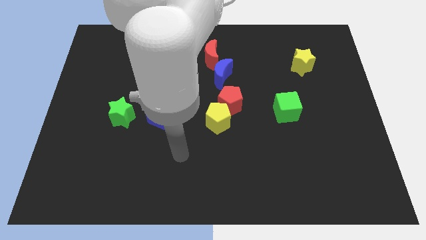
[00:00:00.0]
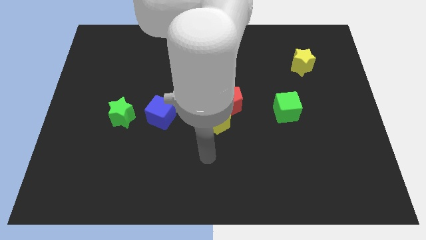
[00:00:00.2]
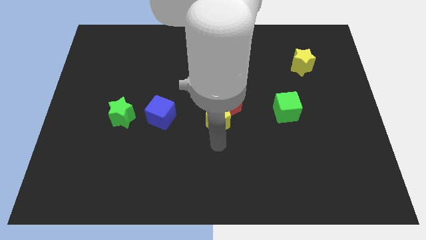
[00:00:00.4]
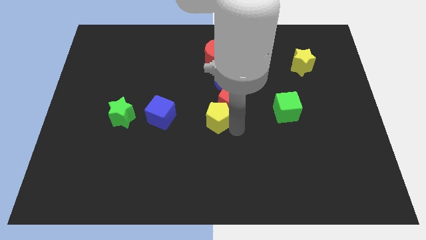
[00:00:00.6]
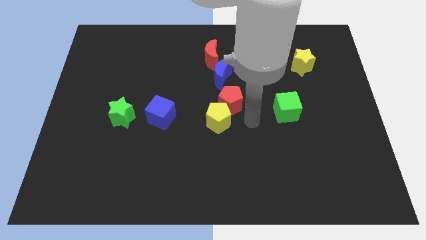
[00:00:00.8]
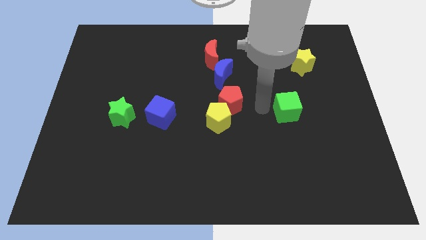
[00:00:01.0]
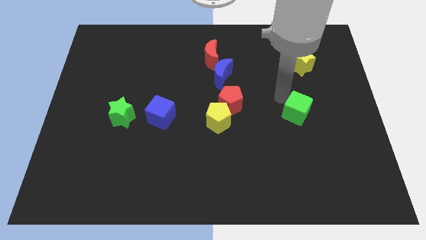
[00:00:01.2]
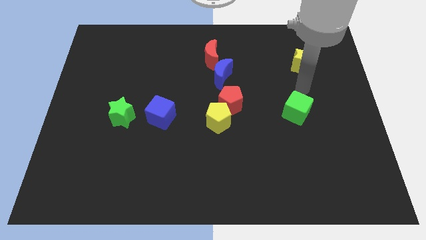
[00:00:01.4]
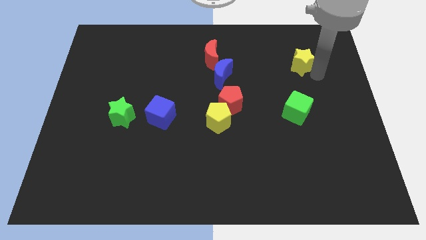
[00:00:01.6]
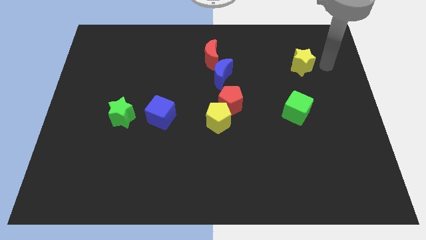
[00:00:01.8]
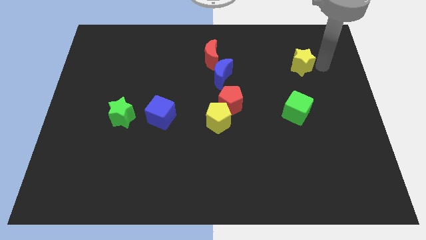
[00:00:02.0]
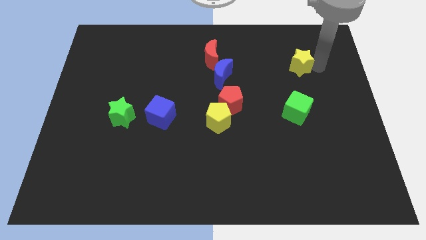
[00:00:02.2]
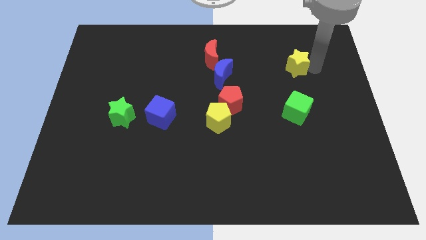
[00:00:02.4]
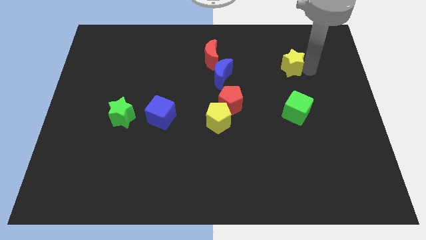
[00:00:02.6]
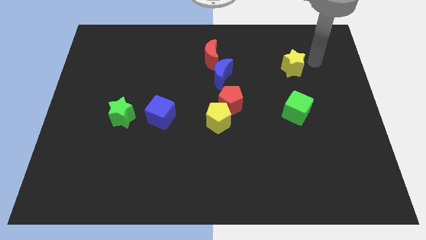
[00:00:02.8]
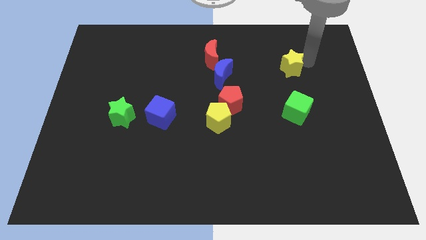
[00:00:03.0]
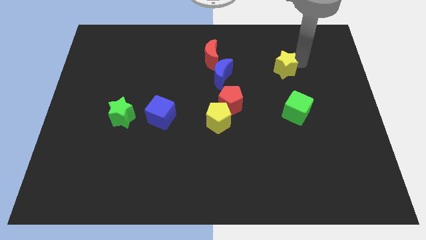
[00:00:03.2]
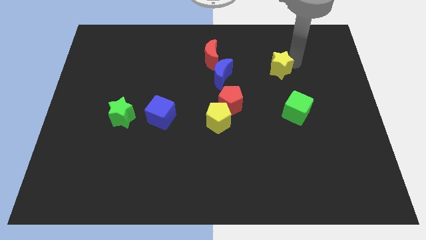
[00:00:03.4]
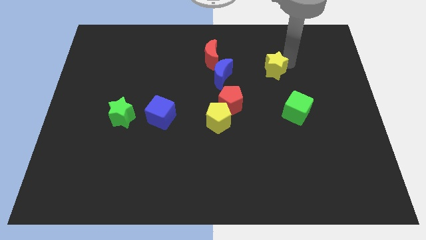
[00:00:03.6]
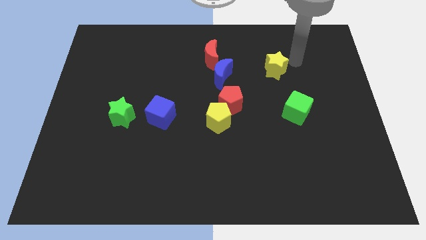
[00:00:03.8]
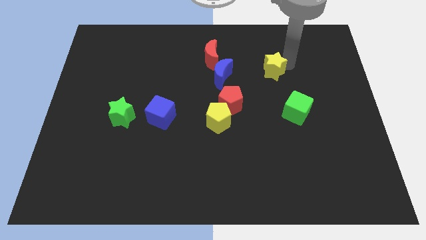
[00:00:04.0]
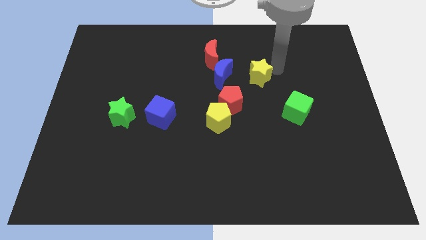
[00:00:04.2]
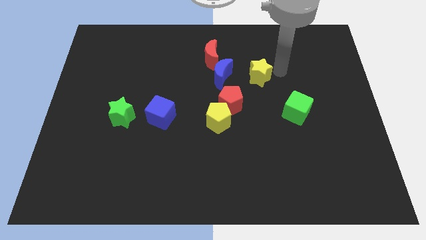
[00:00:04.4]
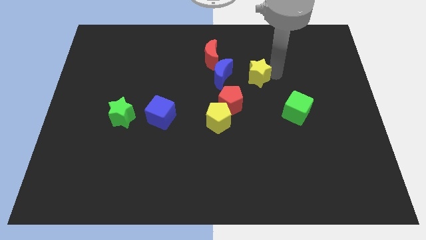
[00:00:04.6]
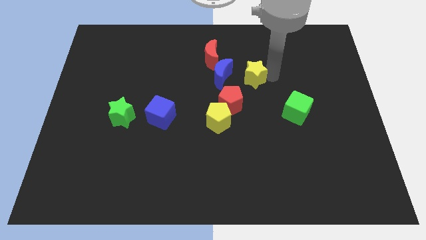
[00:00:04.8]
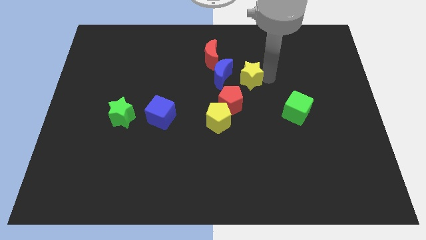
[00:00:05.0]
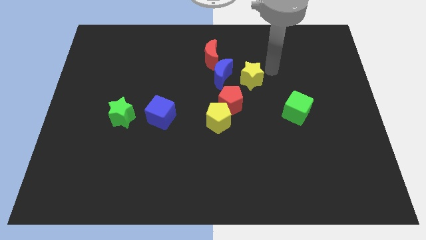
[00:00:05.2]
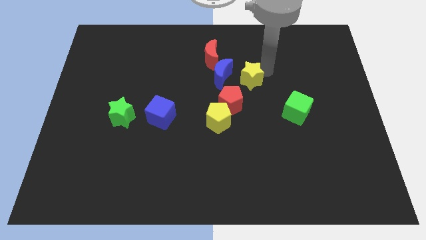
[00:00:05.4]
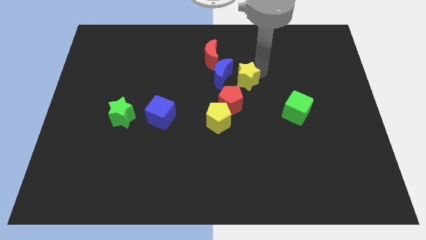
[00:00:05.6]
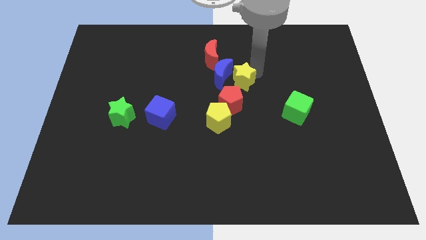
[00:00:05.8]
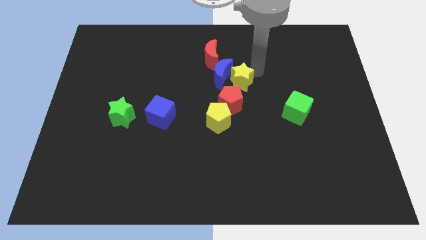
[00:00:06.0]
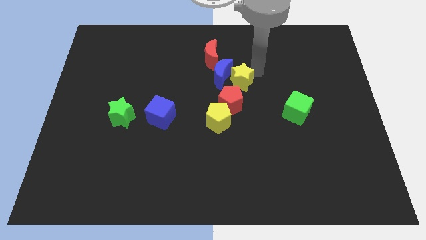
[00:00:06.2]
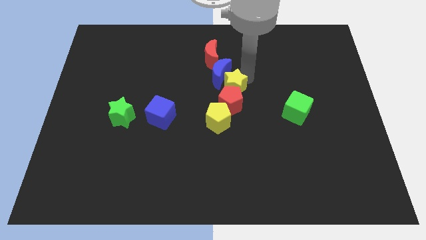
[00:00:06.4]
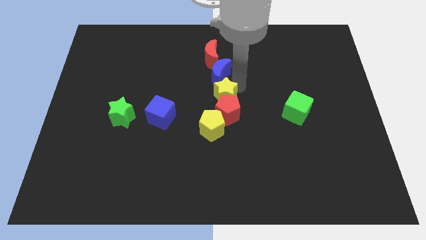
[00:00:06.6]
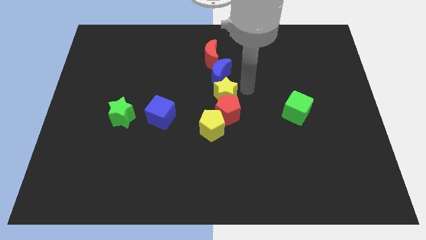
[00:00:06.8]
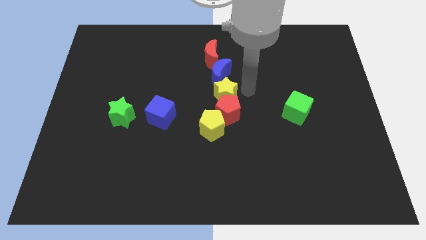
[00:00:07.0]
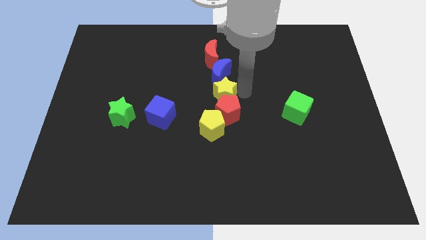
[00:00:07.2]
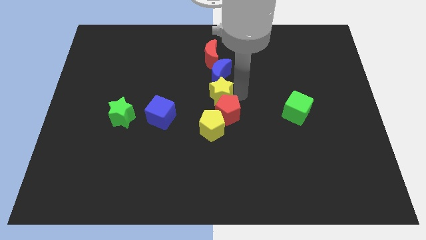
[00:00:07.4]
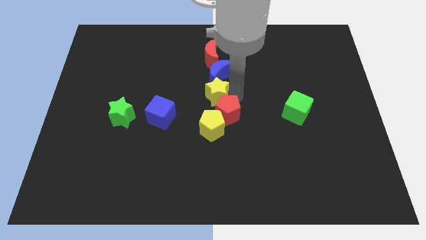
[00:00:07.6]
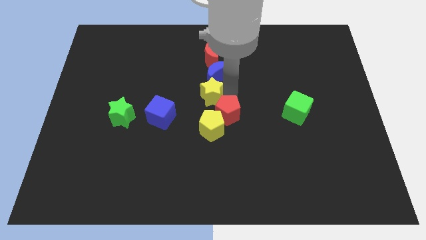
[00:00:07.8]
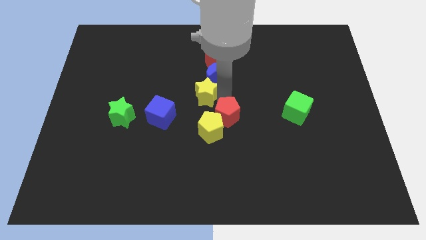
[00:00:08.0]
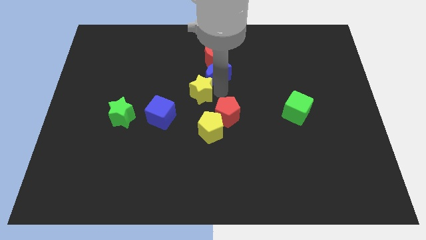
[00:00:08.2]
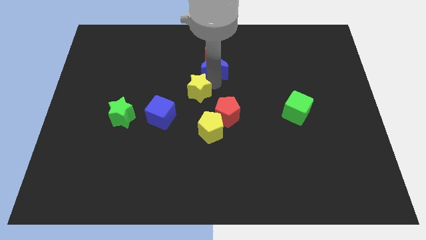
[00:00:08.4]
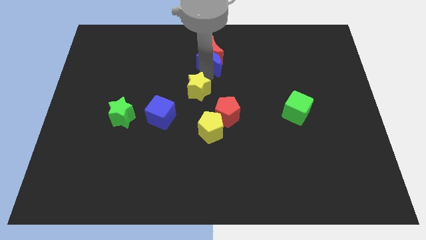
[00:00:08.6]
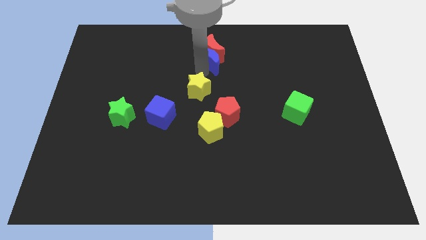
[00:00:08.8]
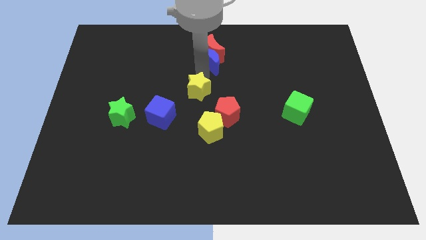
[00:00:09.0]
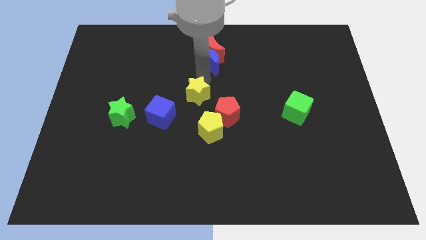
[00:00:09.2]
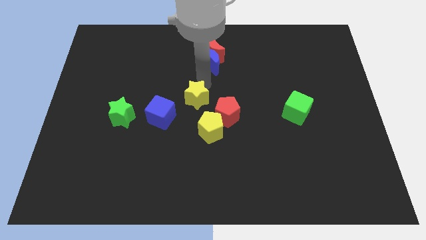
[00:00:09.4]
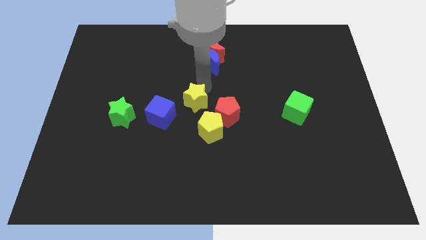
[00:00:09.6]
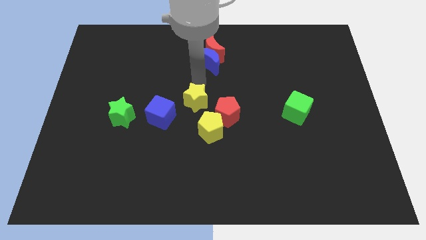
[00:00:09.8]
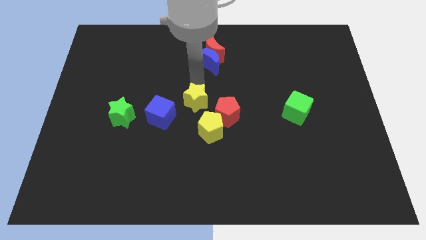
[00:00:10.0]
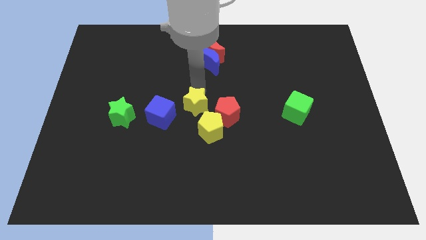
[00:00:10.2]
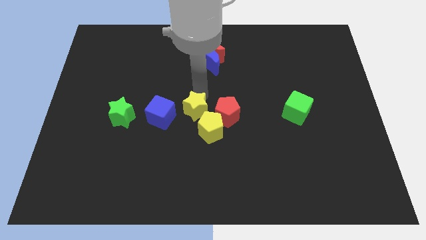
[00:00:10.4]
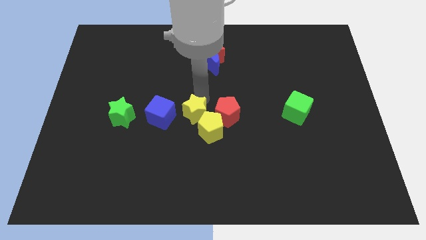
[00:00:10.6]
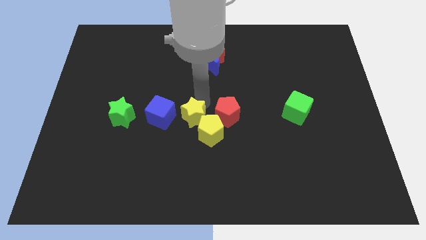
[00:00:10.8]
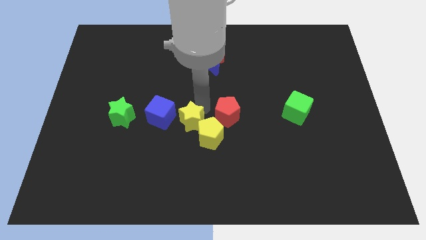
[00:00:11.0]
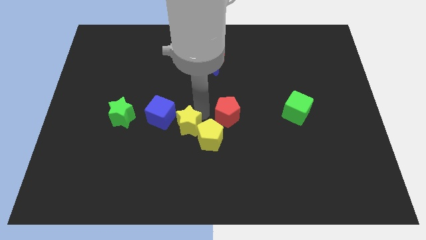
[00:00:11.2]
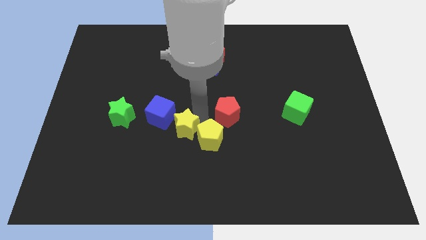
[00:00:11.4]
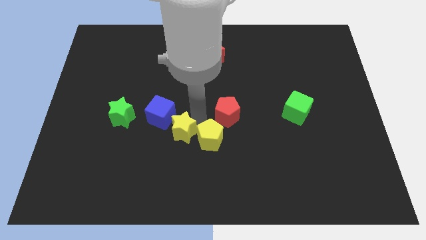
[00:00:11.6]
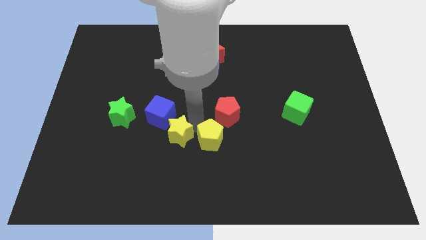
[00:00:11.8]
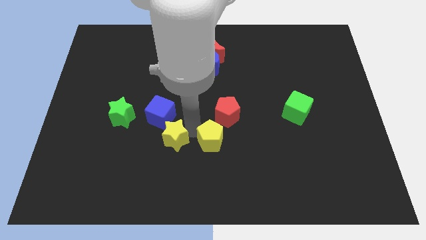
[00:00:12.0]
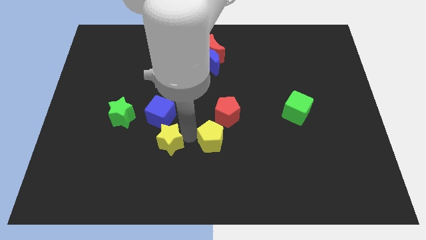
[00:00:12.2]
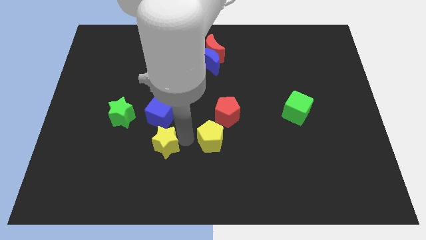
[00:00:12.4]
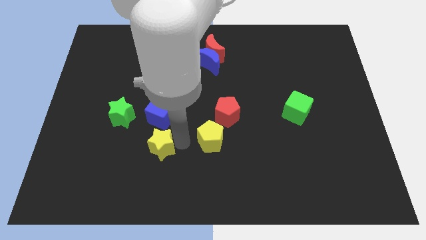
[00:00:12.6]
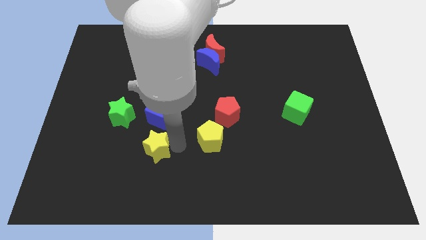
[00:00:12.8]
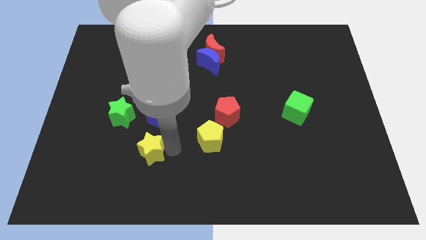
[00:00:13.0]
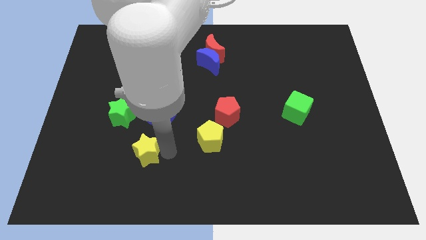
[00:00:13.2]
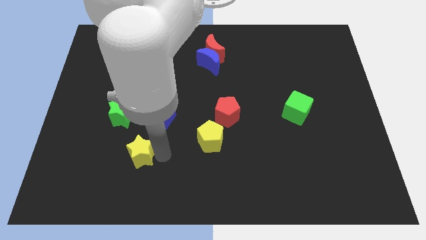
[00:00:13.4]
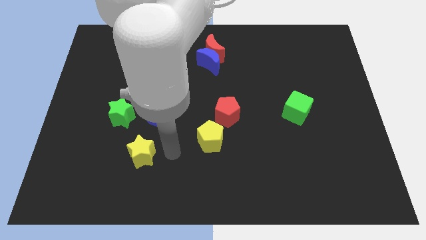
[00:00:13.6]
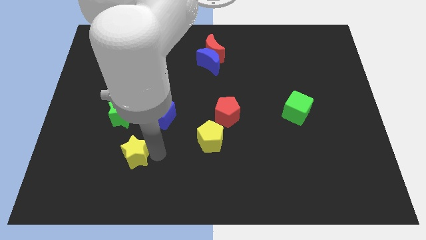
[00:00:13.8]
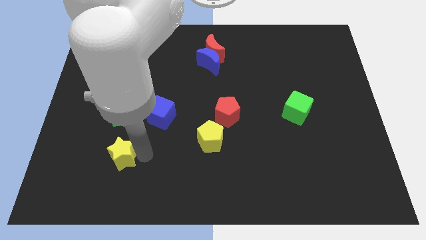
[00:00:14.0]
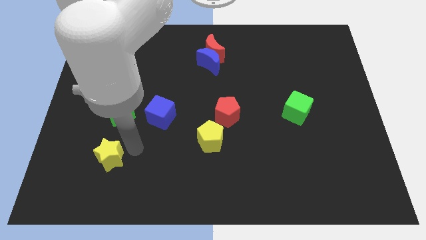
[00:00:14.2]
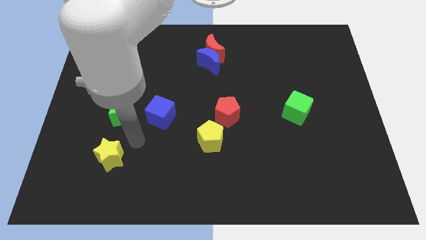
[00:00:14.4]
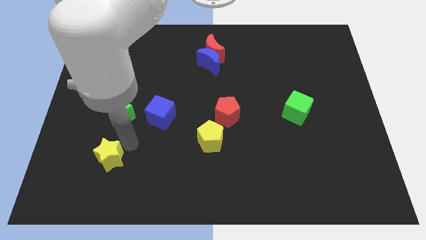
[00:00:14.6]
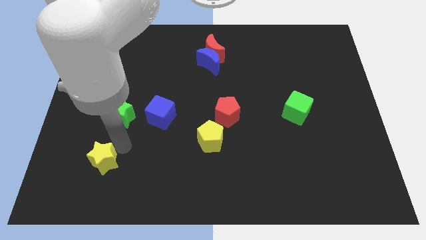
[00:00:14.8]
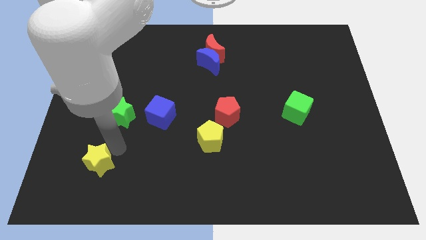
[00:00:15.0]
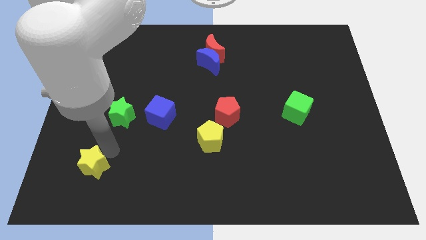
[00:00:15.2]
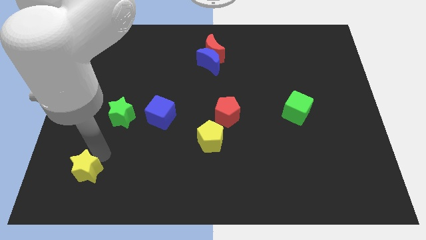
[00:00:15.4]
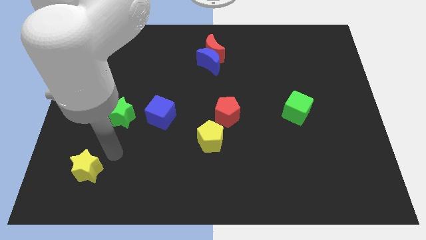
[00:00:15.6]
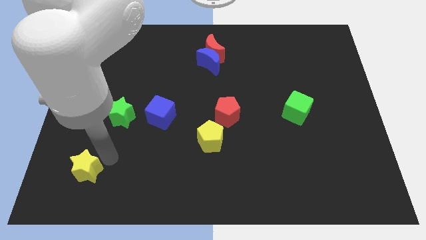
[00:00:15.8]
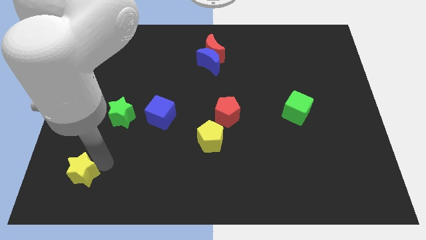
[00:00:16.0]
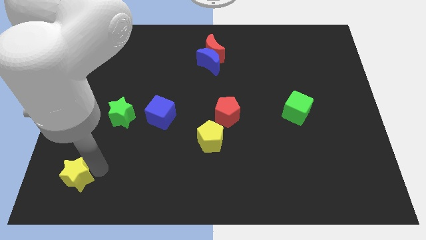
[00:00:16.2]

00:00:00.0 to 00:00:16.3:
slide the yellow star to the lower left corner
